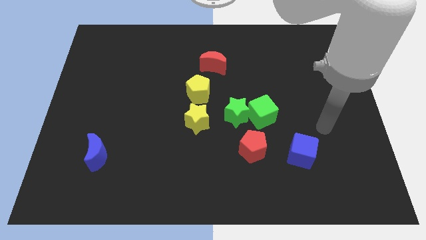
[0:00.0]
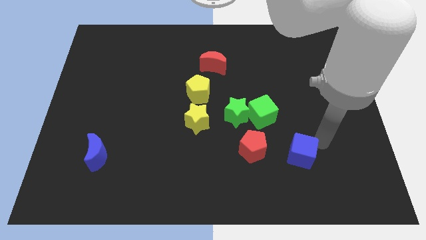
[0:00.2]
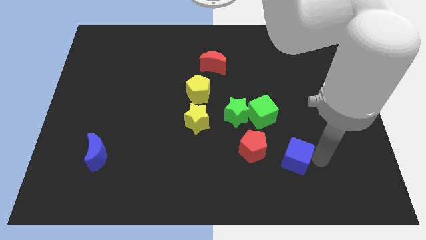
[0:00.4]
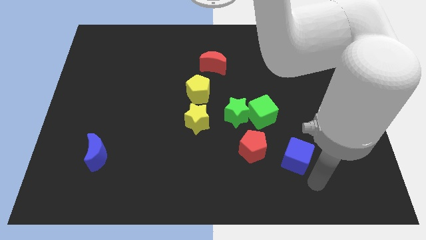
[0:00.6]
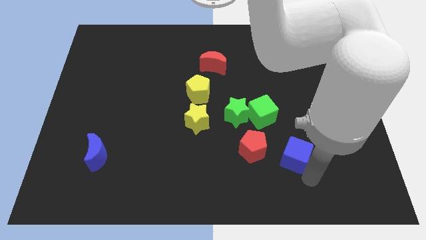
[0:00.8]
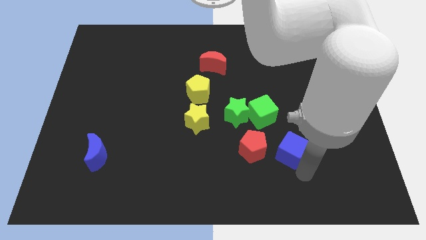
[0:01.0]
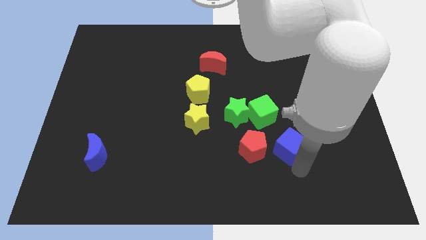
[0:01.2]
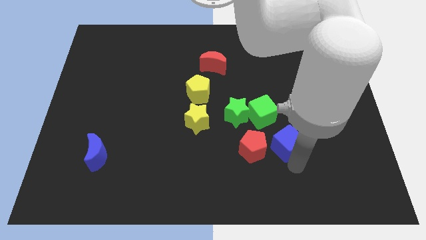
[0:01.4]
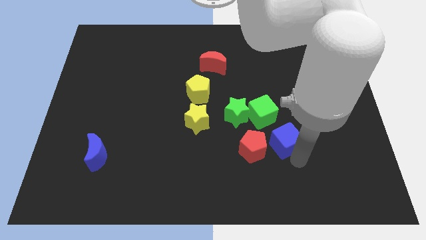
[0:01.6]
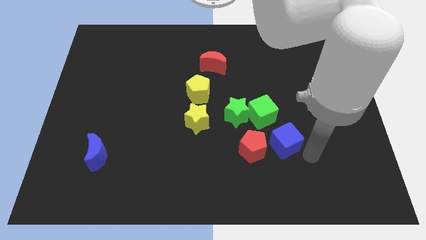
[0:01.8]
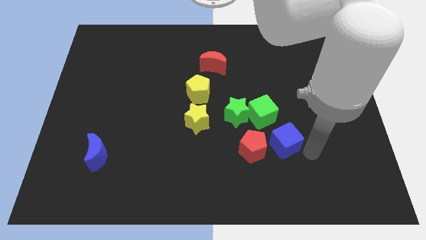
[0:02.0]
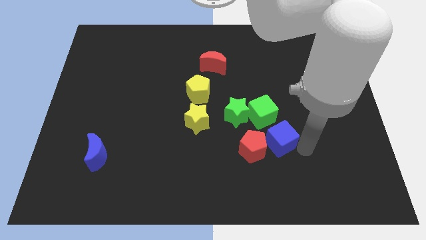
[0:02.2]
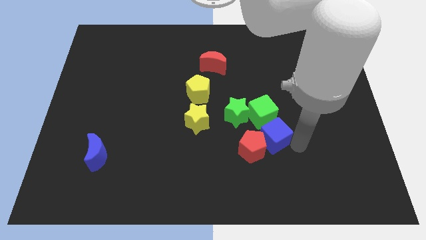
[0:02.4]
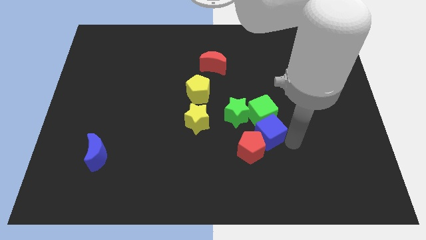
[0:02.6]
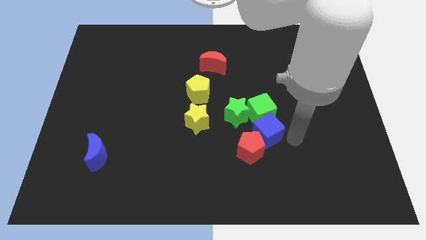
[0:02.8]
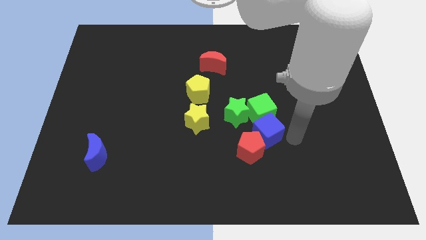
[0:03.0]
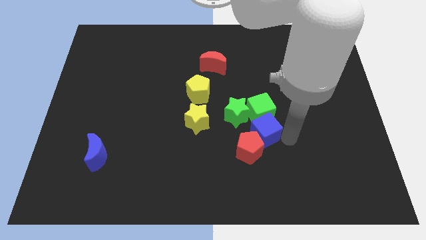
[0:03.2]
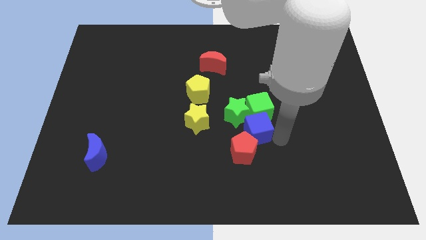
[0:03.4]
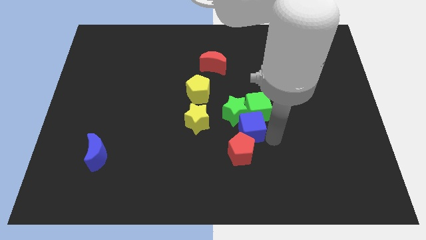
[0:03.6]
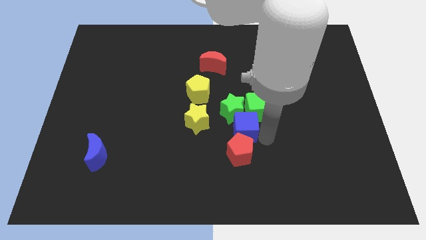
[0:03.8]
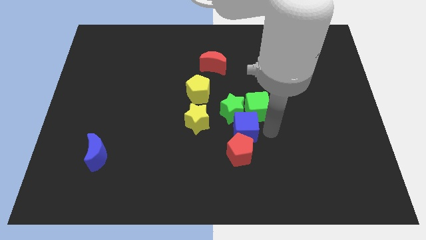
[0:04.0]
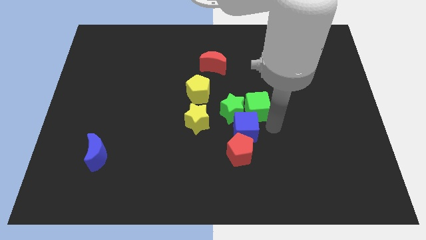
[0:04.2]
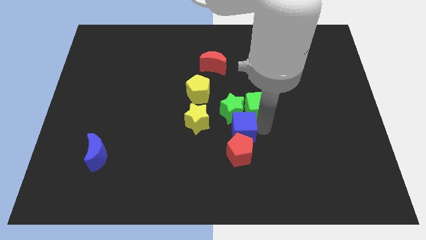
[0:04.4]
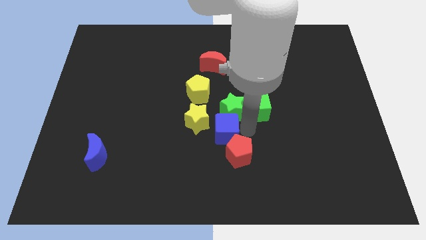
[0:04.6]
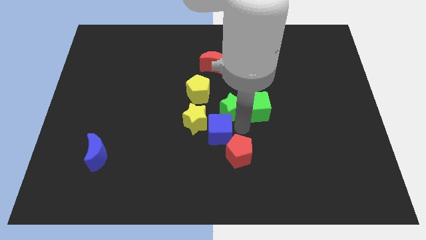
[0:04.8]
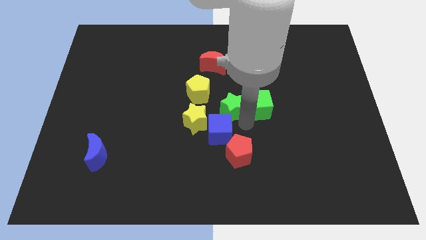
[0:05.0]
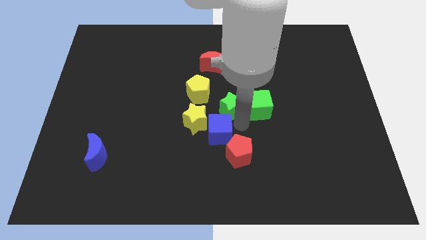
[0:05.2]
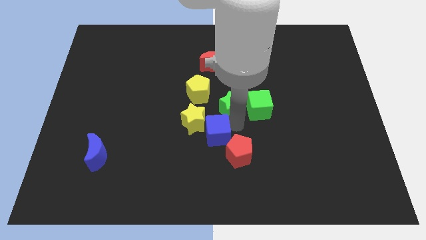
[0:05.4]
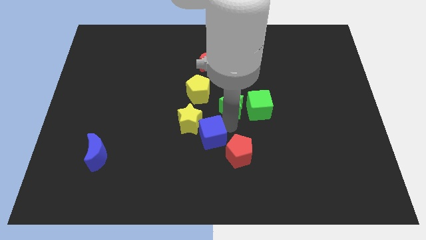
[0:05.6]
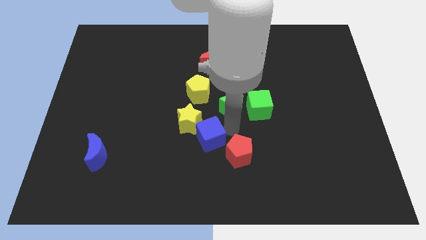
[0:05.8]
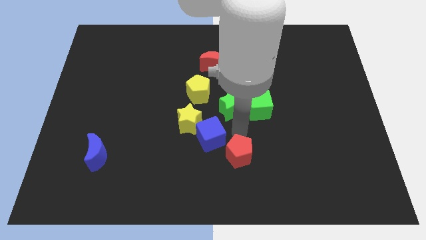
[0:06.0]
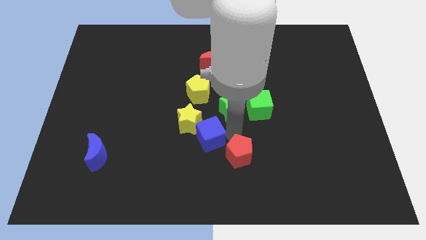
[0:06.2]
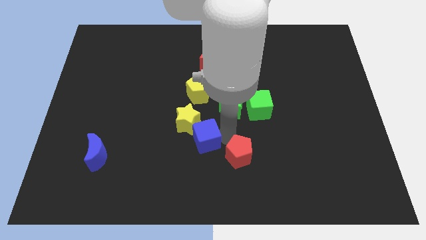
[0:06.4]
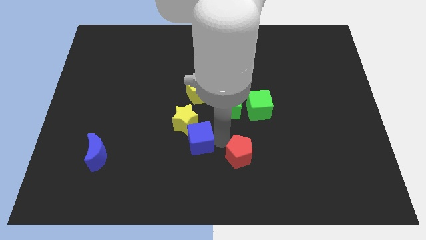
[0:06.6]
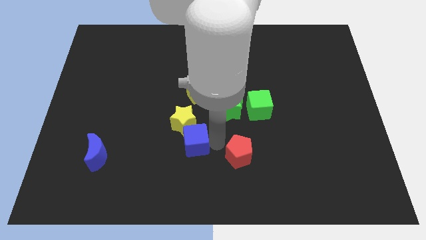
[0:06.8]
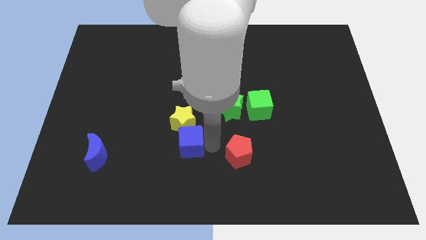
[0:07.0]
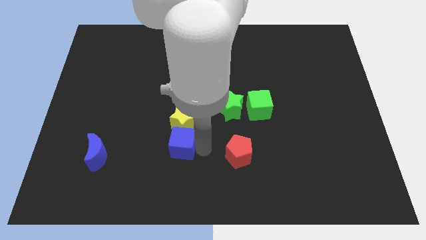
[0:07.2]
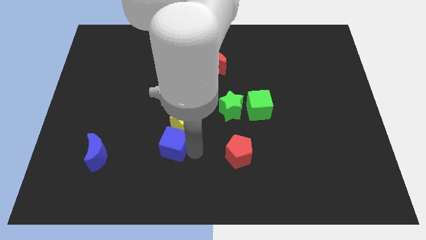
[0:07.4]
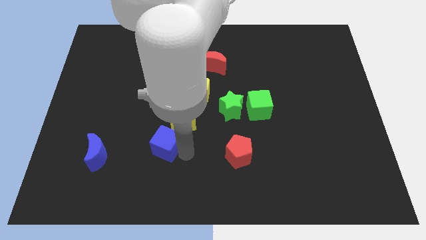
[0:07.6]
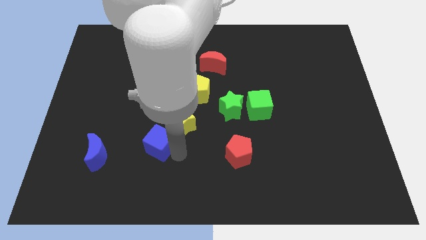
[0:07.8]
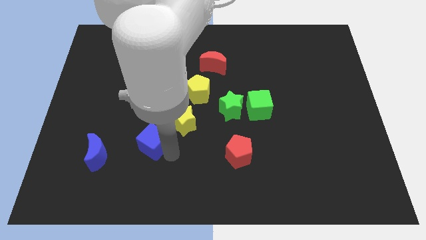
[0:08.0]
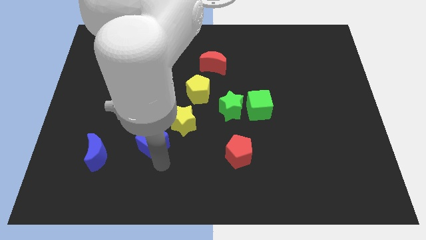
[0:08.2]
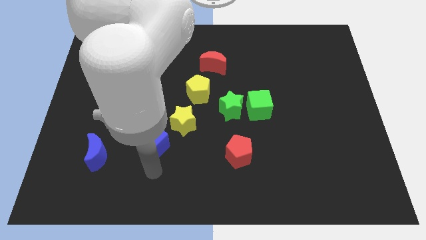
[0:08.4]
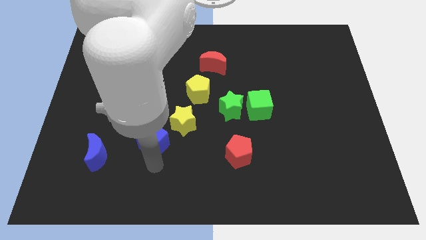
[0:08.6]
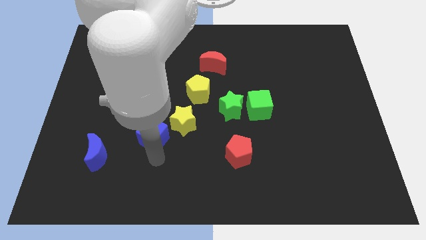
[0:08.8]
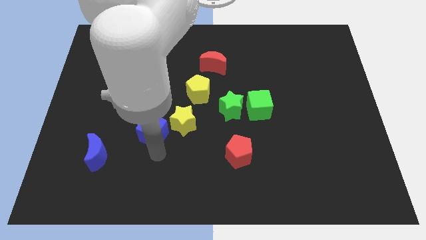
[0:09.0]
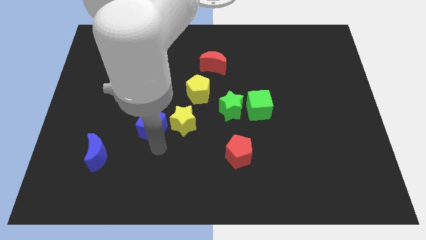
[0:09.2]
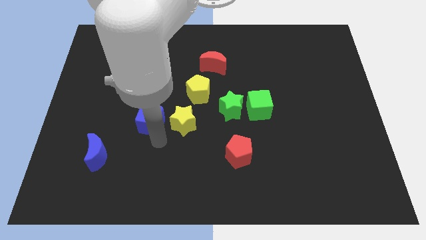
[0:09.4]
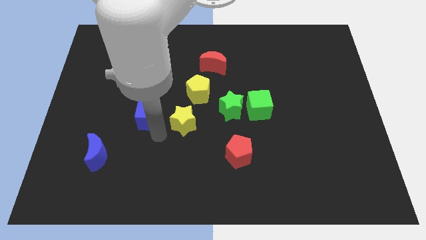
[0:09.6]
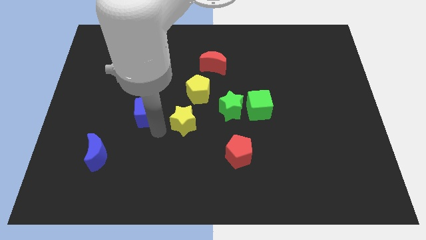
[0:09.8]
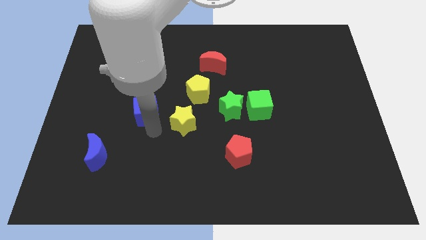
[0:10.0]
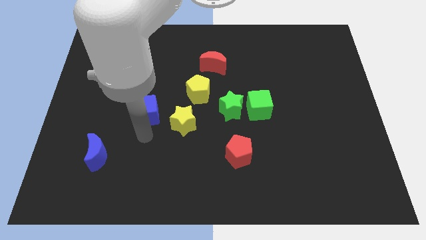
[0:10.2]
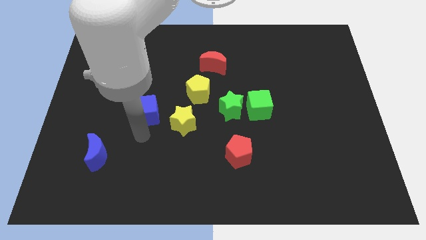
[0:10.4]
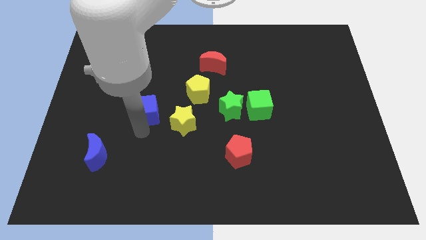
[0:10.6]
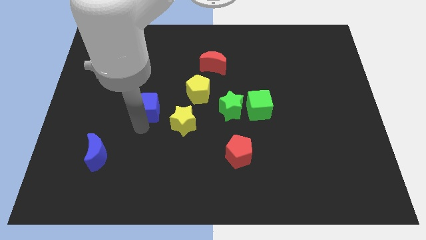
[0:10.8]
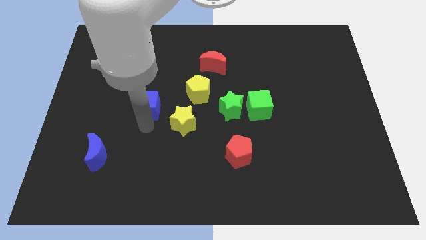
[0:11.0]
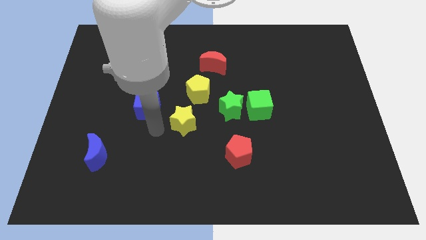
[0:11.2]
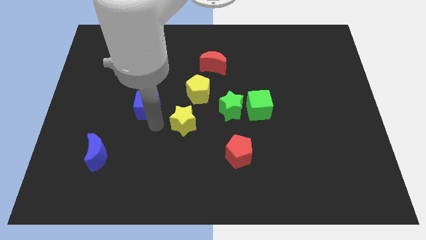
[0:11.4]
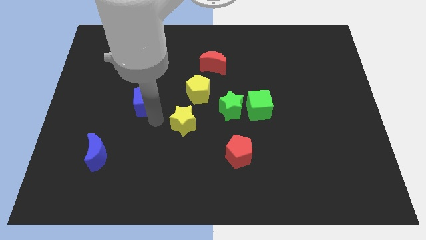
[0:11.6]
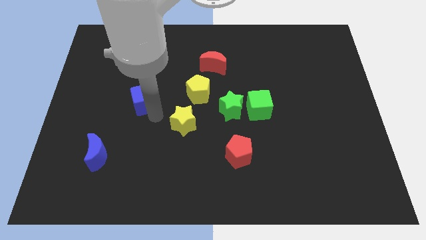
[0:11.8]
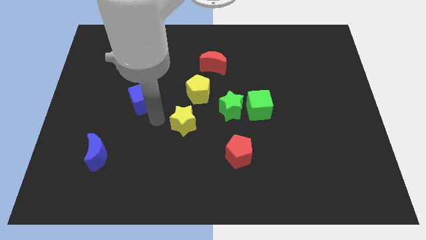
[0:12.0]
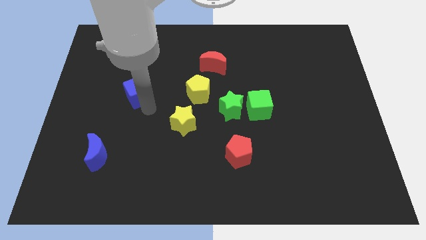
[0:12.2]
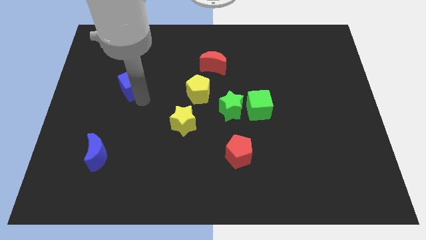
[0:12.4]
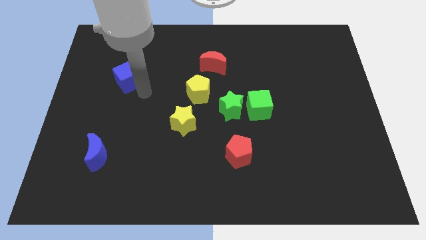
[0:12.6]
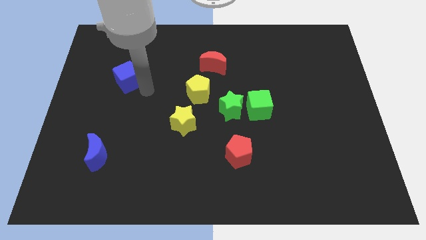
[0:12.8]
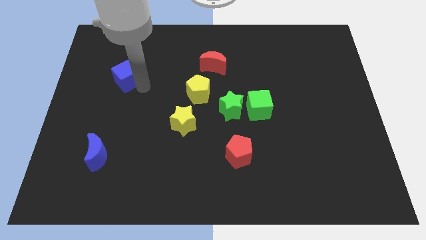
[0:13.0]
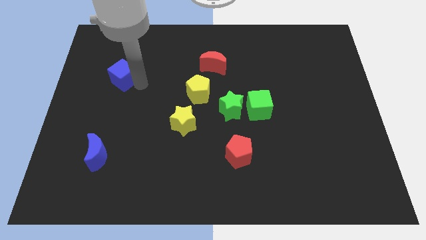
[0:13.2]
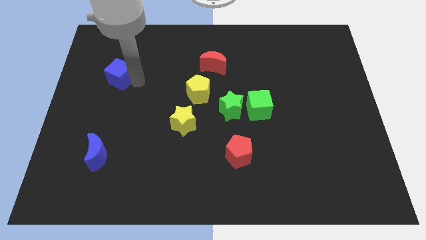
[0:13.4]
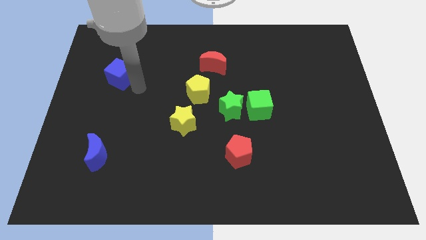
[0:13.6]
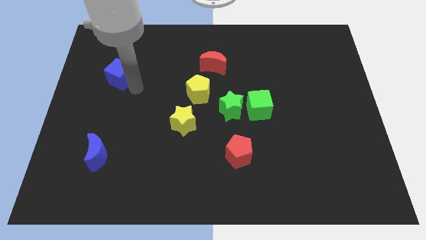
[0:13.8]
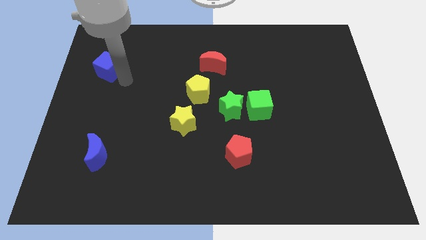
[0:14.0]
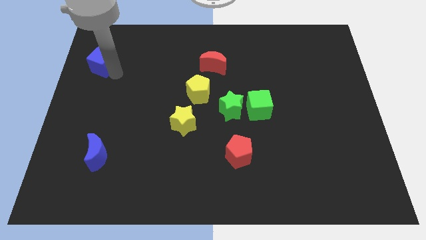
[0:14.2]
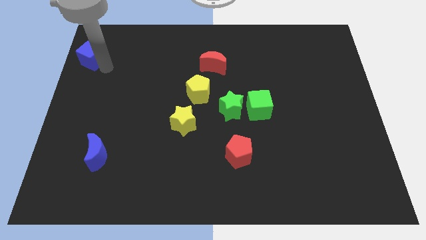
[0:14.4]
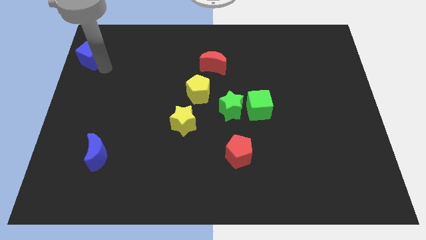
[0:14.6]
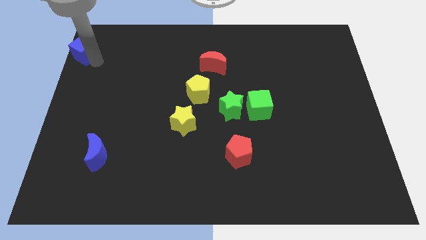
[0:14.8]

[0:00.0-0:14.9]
put the blue cube to the top left corner

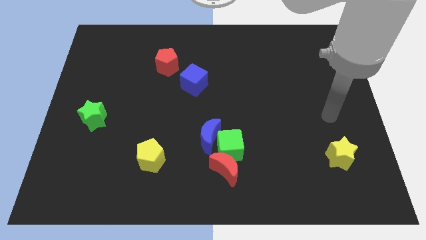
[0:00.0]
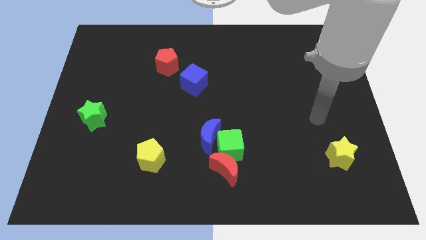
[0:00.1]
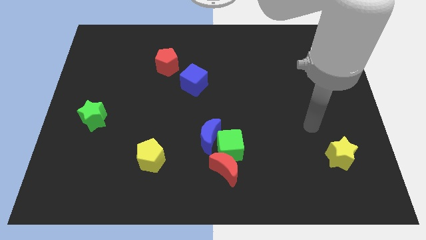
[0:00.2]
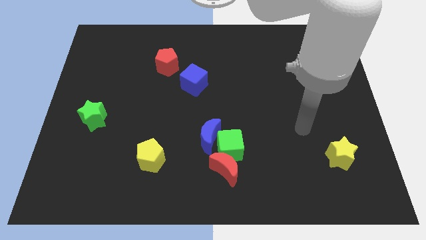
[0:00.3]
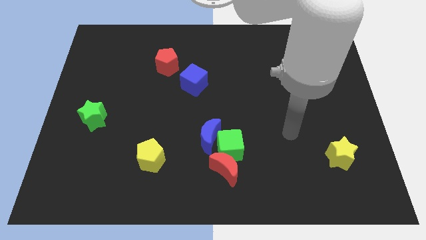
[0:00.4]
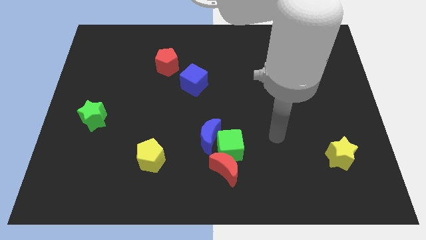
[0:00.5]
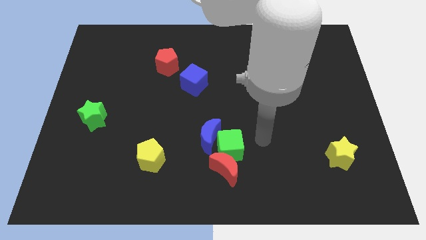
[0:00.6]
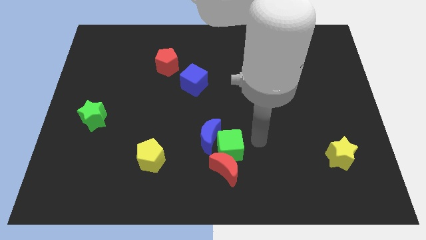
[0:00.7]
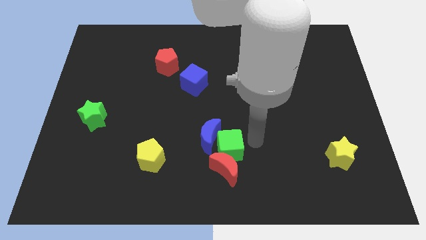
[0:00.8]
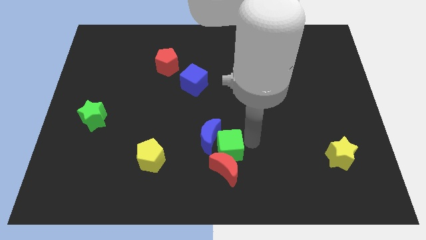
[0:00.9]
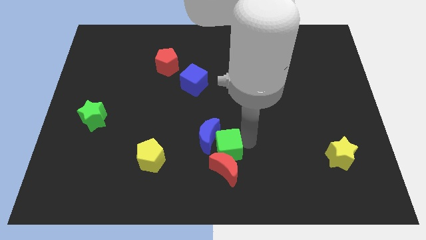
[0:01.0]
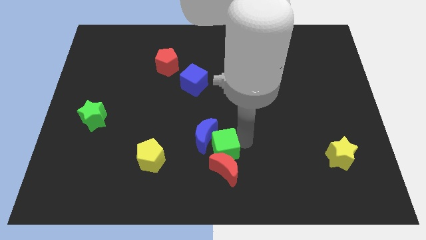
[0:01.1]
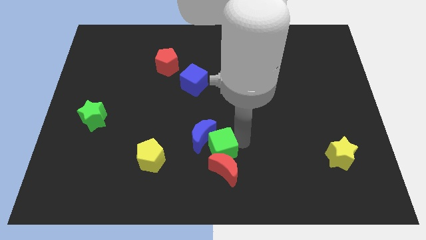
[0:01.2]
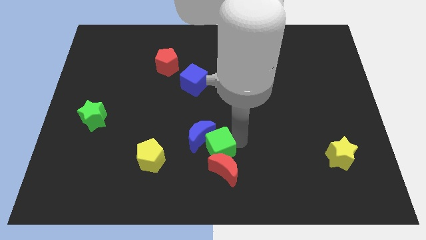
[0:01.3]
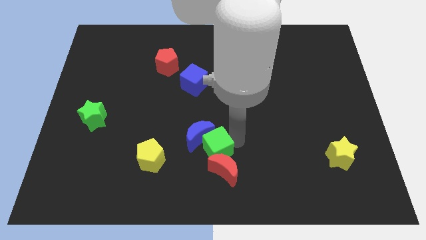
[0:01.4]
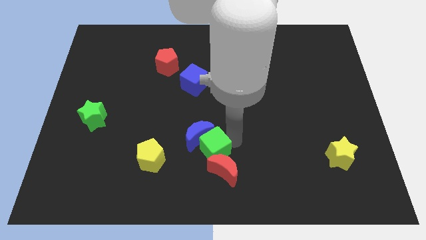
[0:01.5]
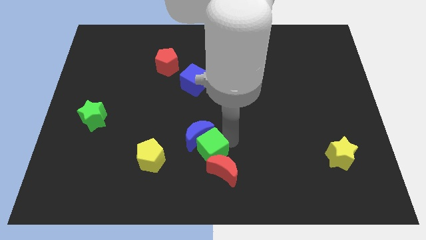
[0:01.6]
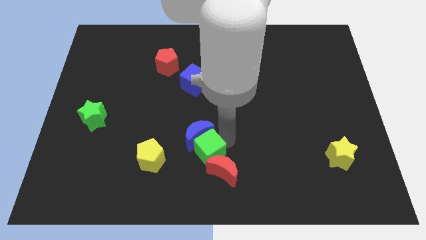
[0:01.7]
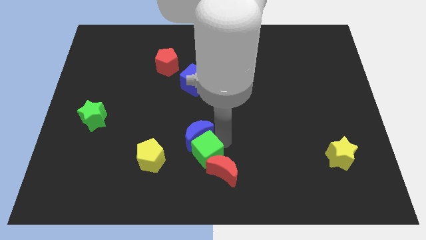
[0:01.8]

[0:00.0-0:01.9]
slide the green cube to the bottom
